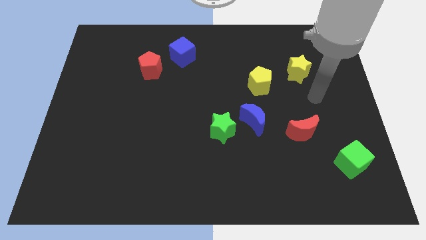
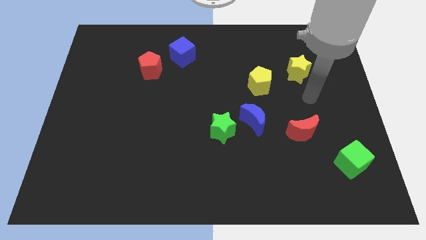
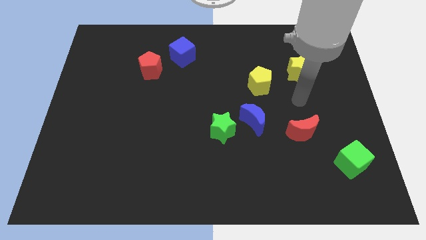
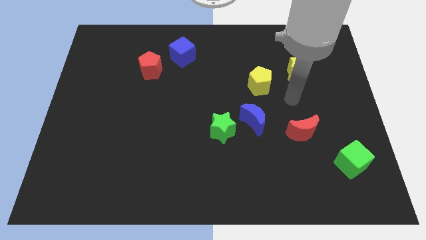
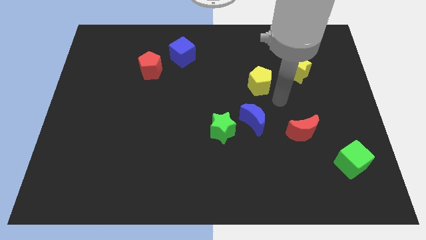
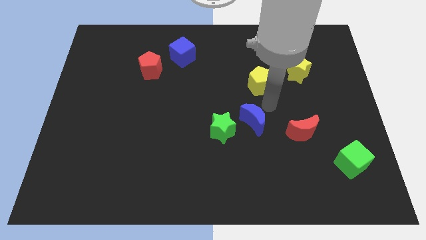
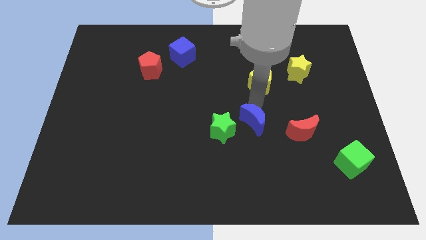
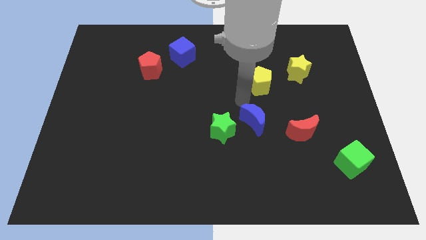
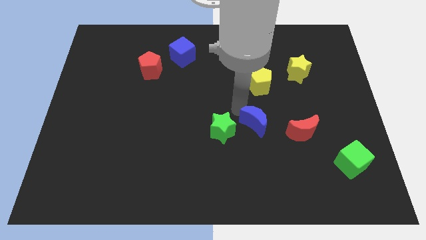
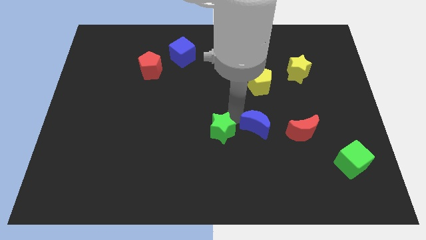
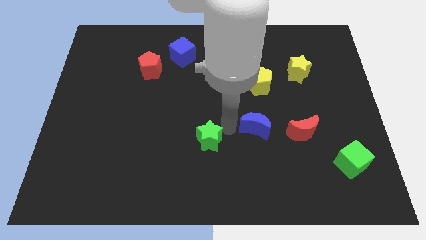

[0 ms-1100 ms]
separate the blue moon from the green star

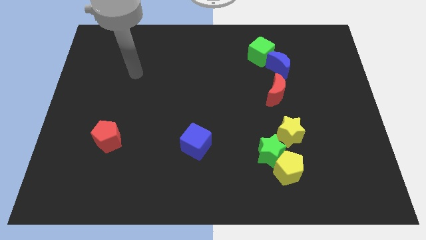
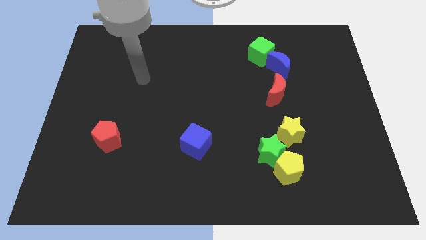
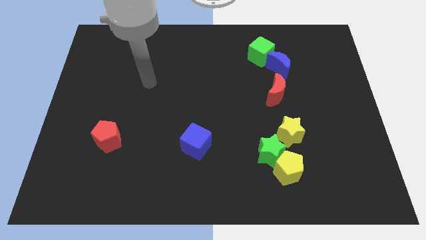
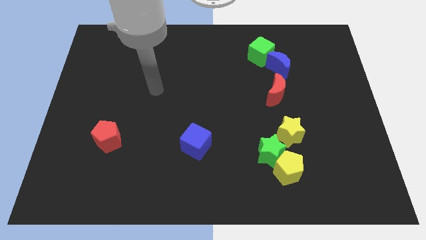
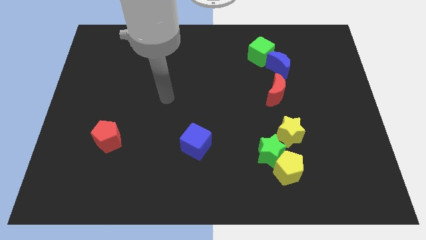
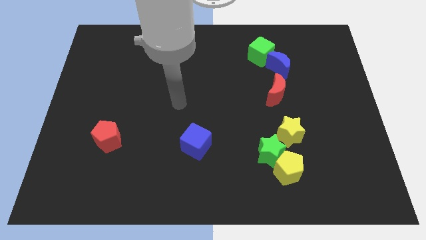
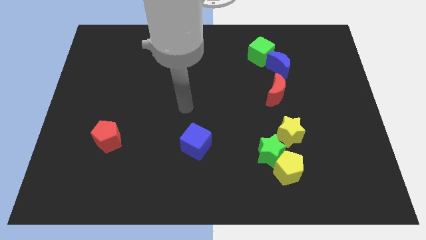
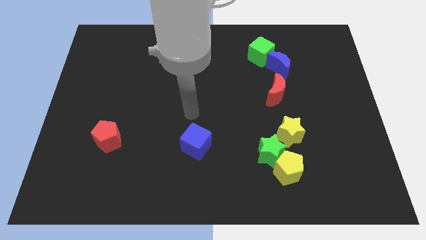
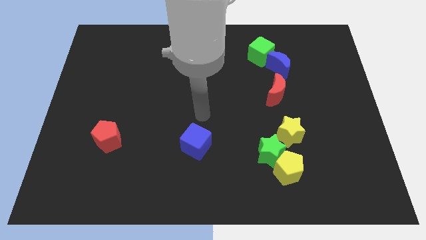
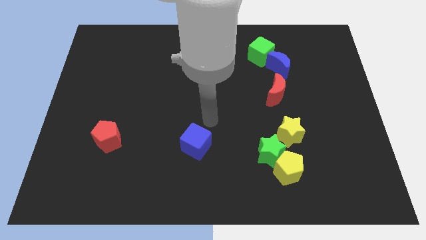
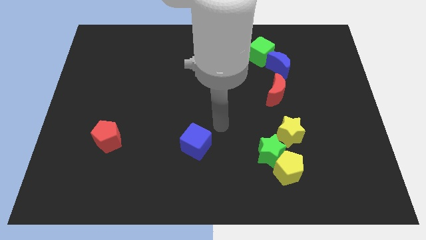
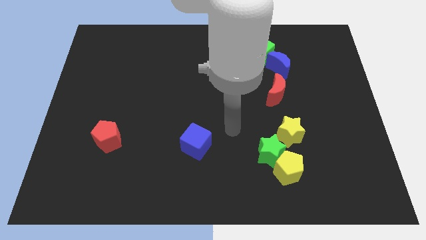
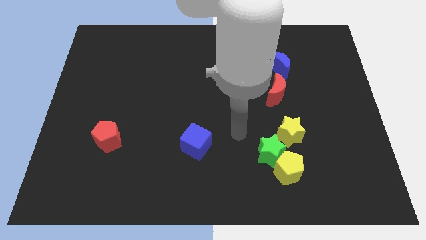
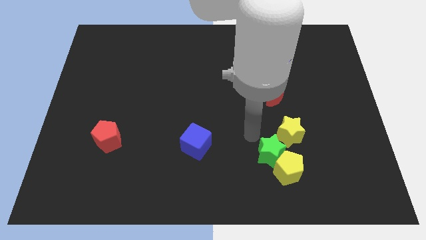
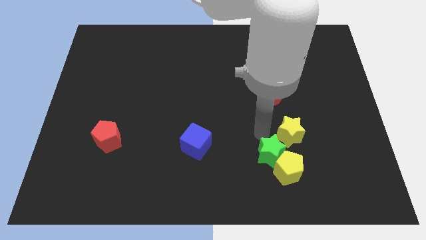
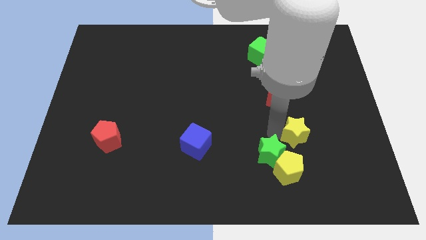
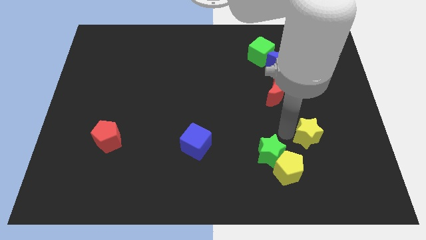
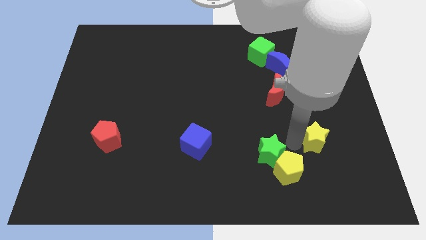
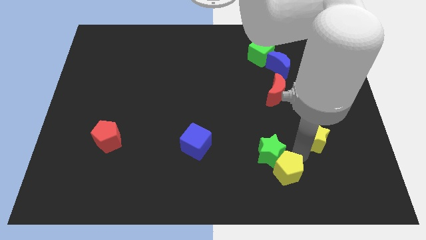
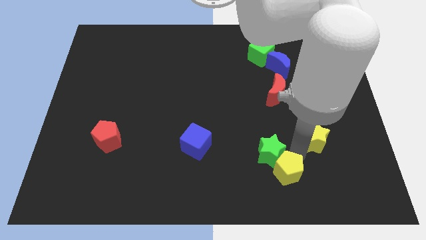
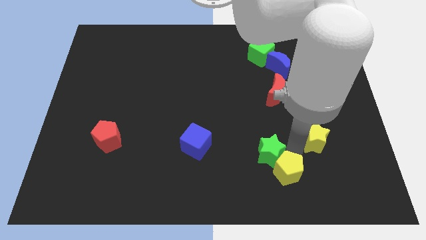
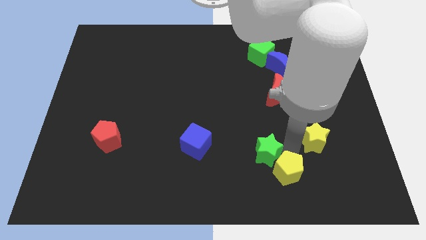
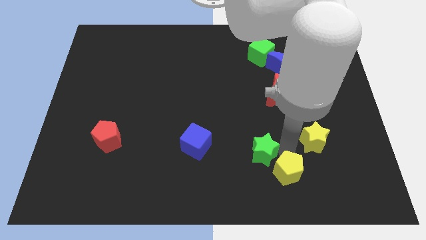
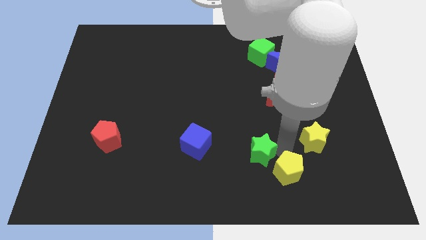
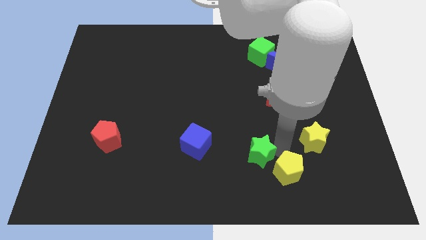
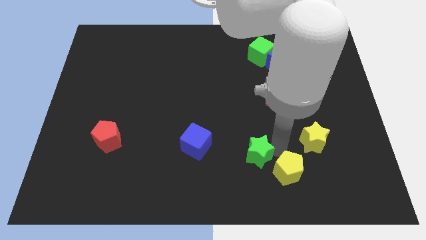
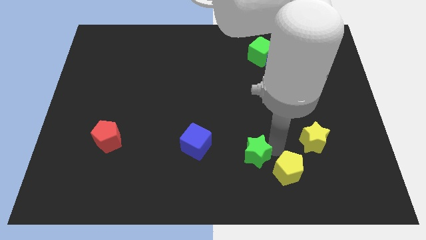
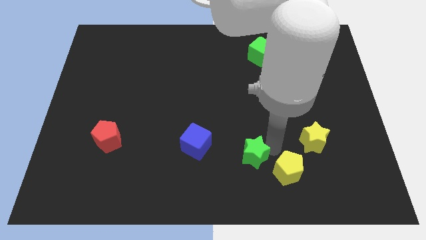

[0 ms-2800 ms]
separate the green star from the yellow pentagon and yellow star

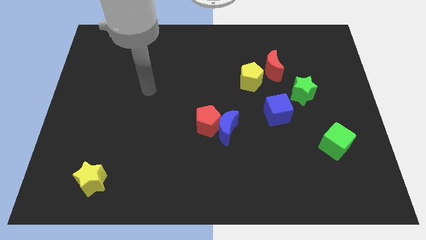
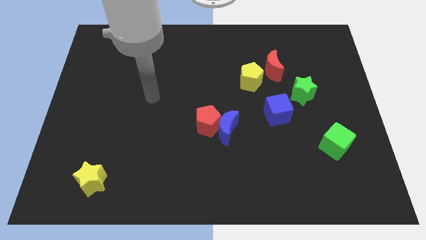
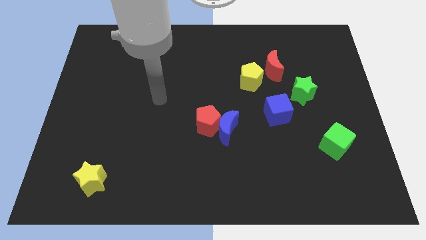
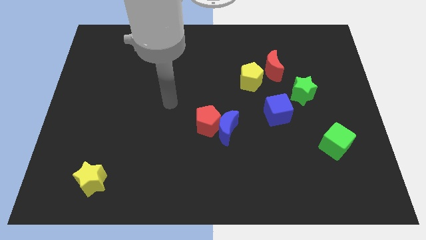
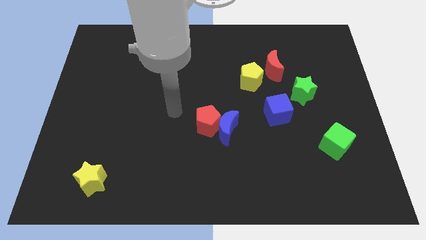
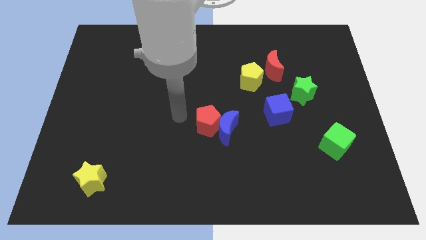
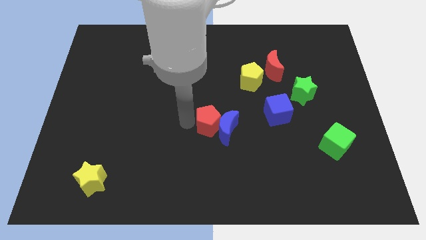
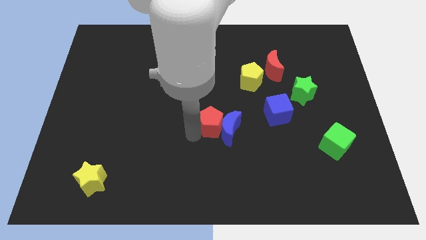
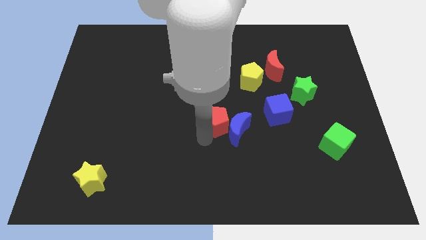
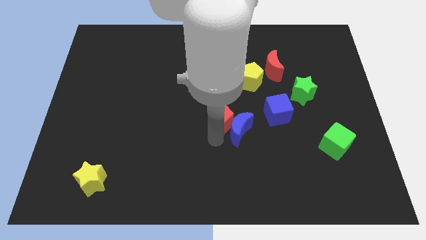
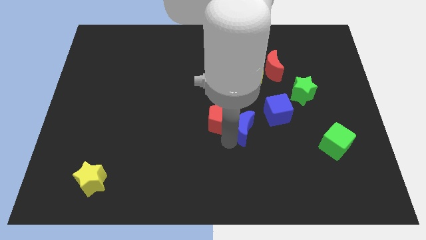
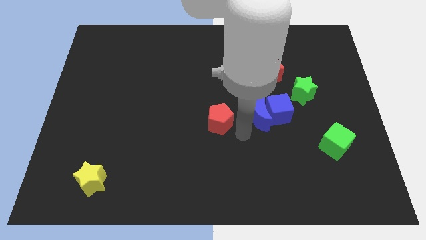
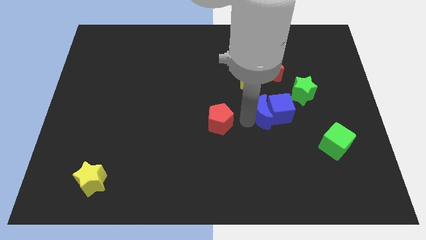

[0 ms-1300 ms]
move the red pentagon away from the blue moon

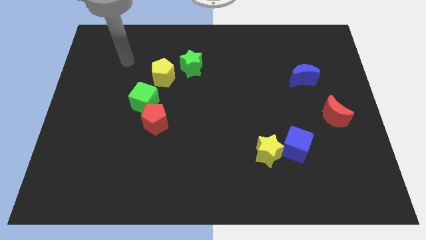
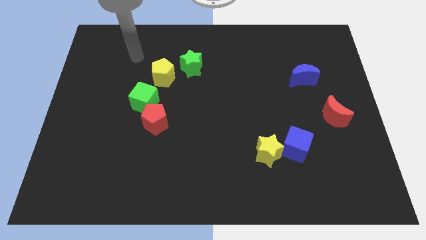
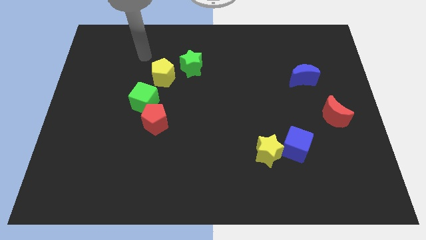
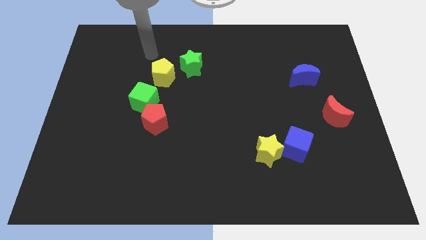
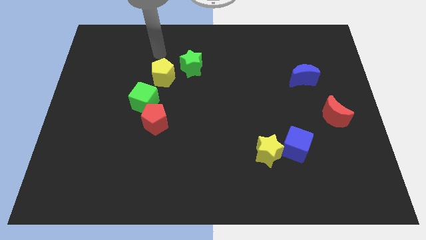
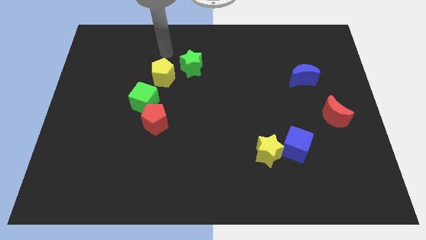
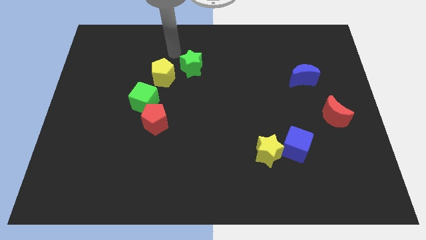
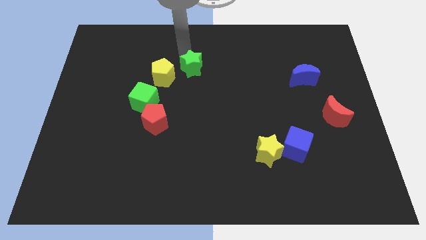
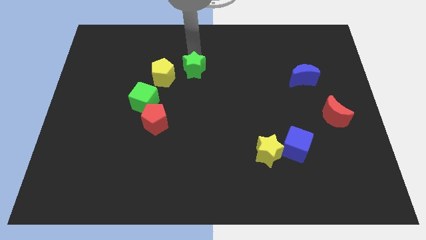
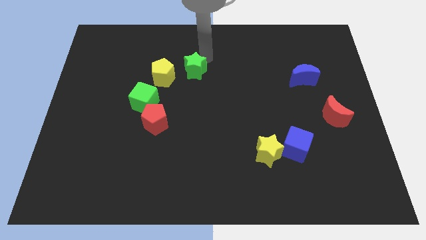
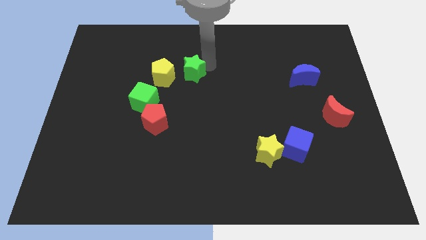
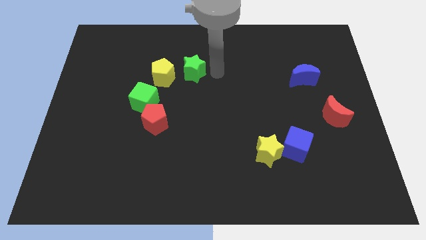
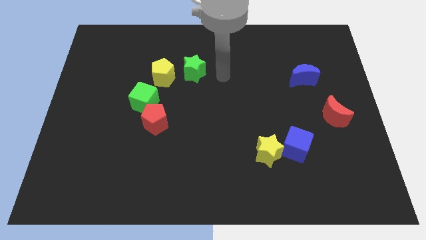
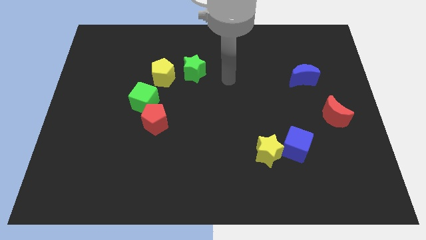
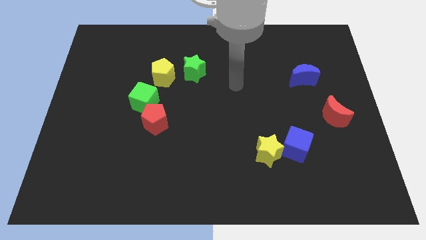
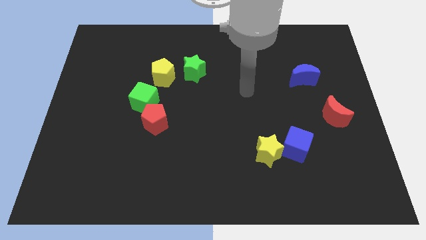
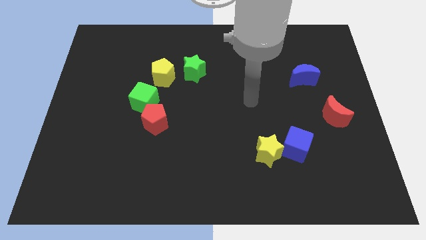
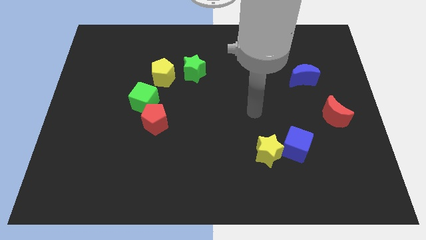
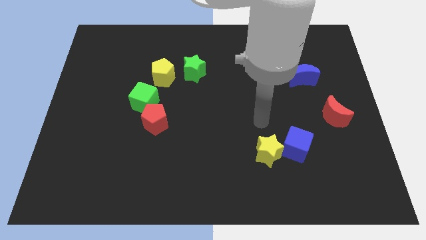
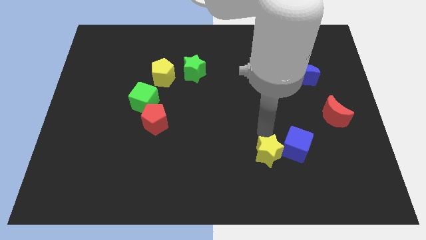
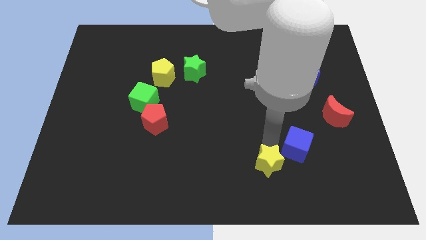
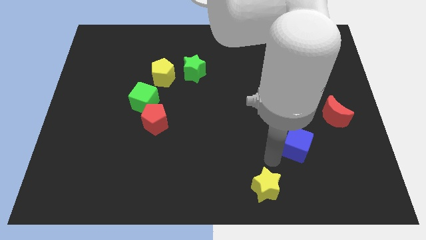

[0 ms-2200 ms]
separate the blue cube from the yellow star

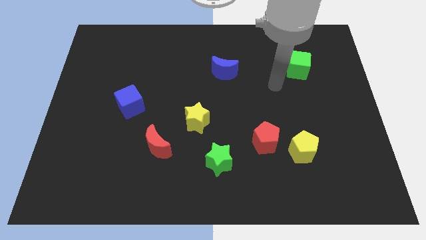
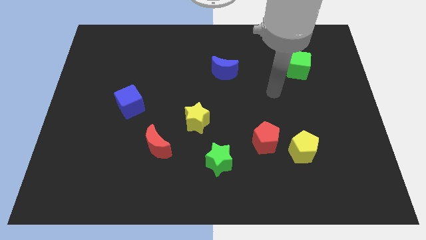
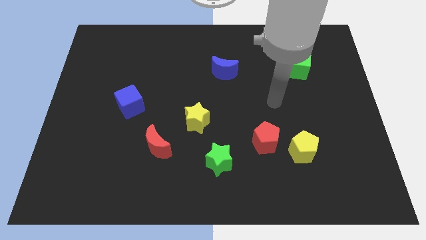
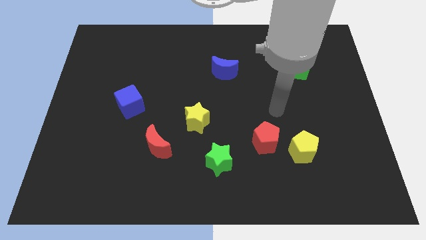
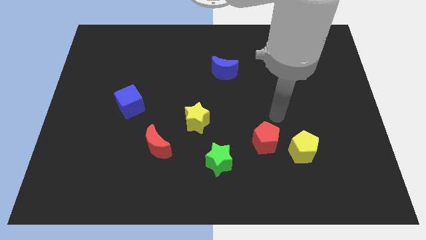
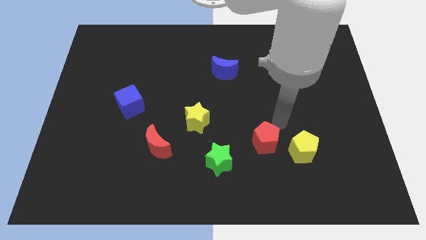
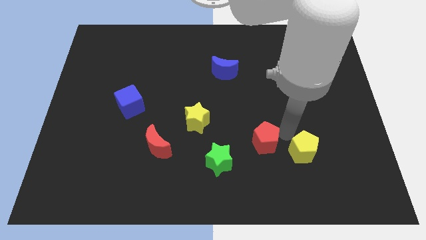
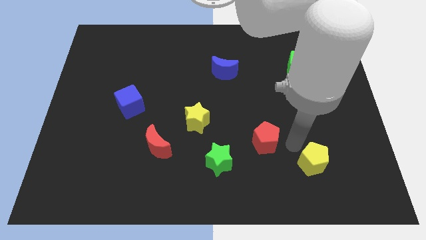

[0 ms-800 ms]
move the red pentagon away from the yellow pentagon

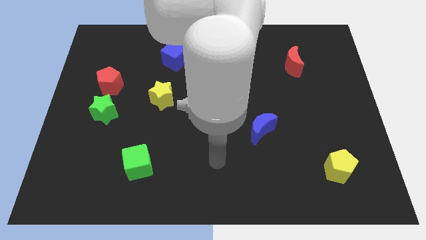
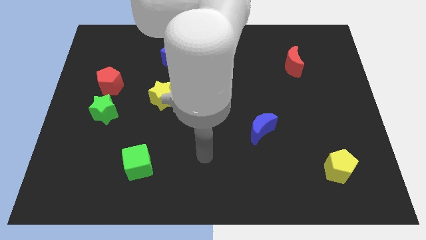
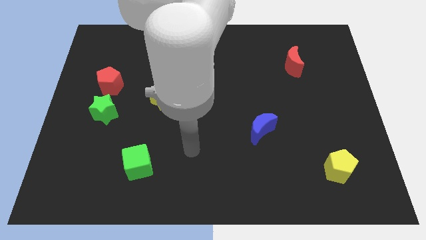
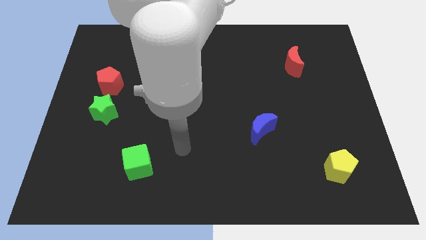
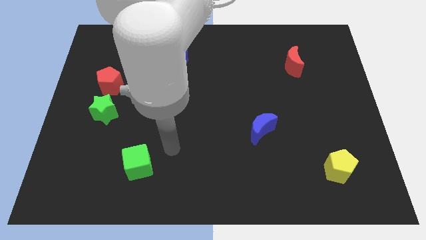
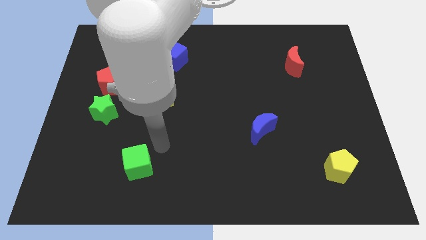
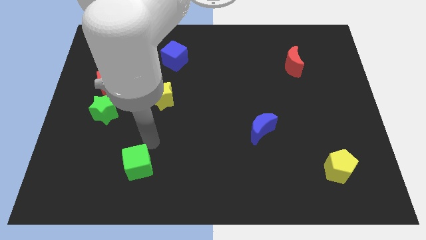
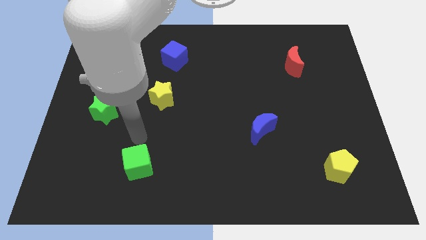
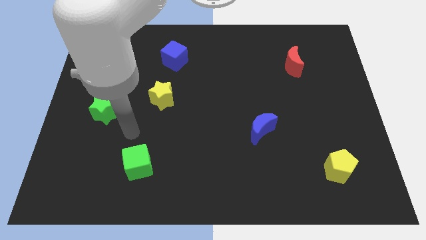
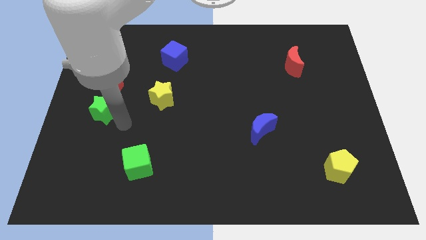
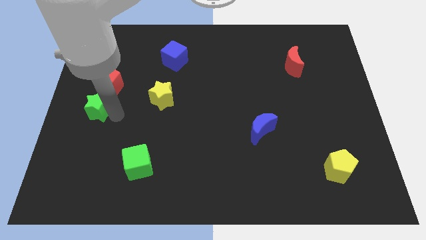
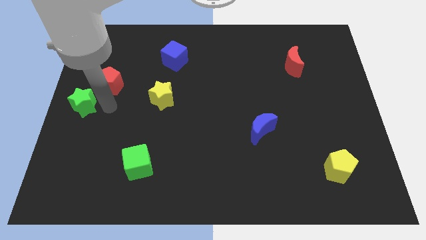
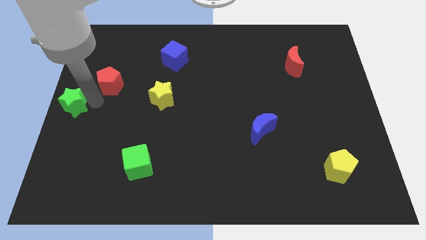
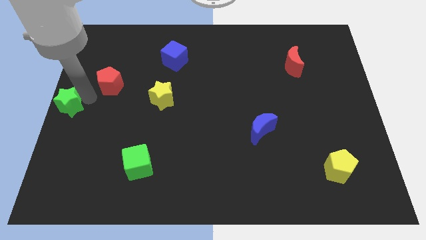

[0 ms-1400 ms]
pull the red pentagon apart from the green star
